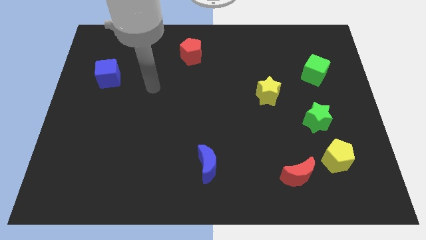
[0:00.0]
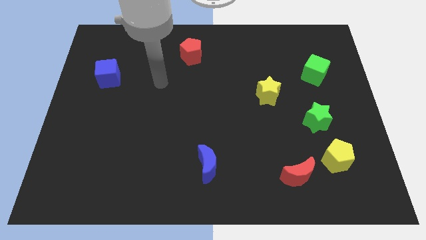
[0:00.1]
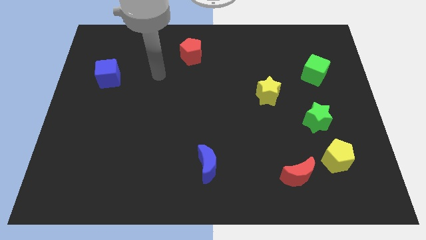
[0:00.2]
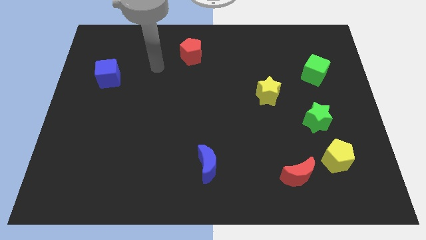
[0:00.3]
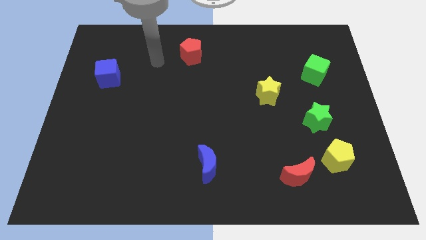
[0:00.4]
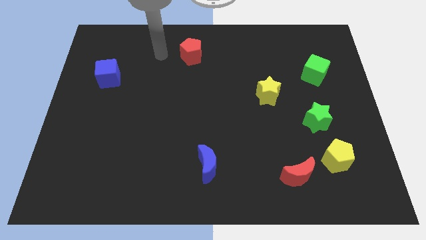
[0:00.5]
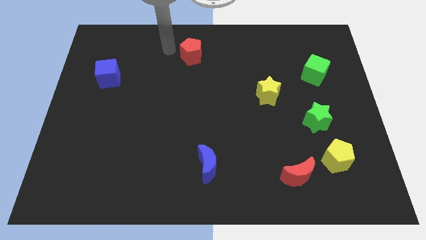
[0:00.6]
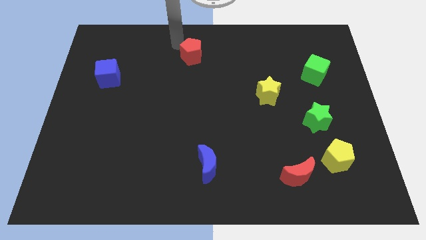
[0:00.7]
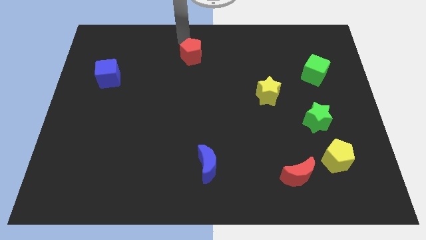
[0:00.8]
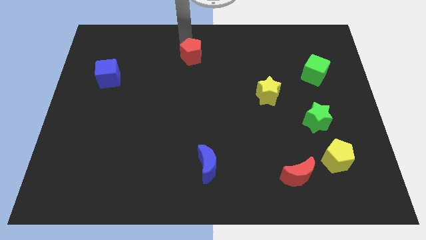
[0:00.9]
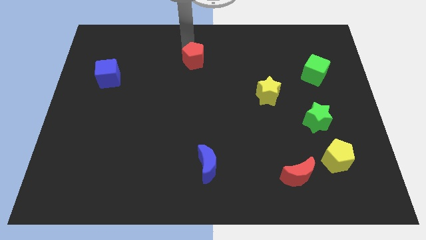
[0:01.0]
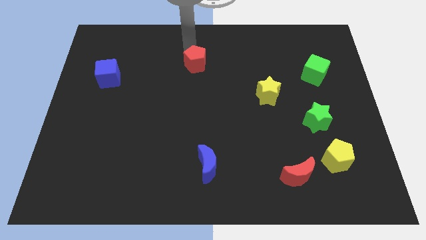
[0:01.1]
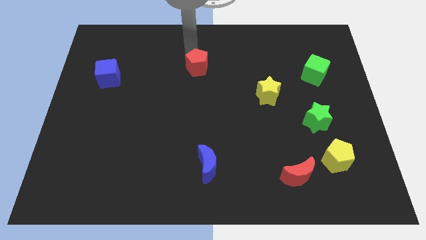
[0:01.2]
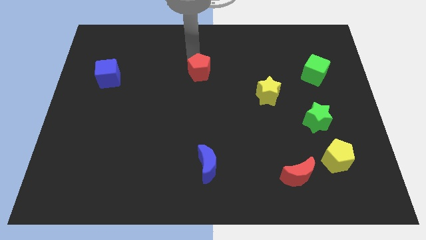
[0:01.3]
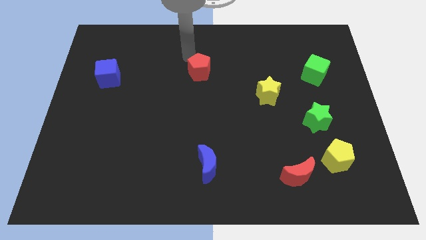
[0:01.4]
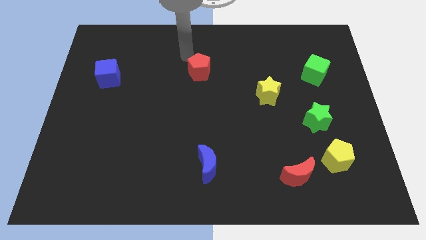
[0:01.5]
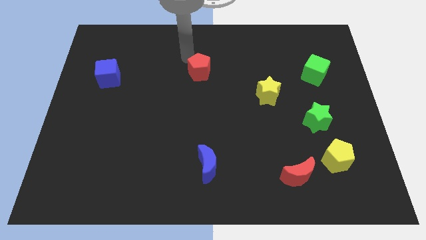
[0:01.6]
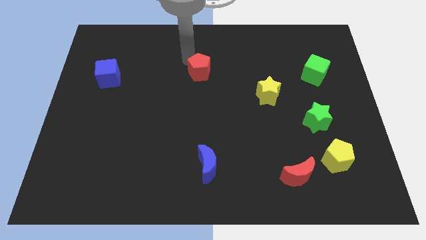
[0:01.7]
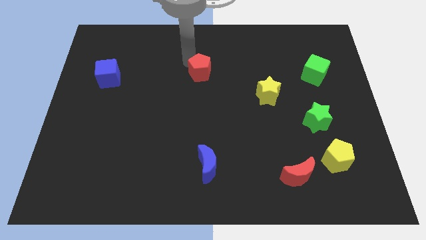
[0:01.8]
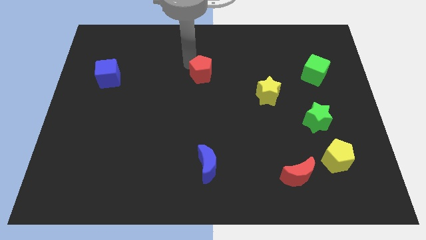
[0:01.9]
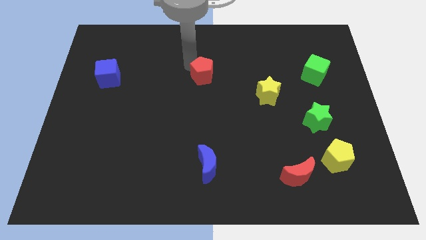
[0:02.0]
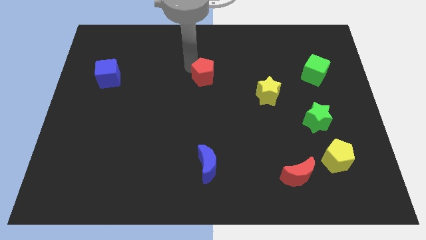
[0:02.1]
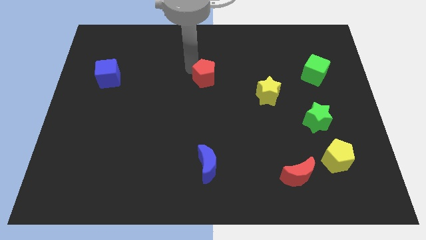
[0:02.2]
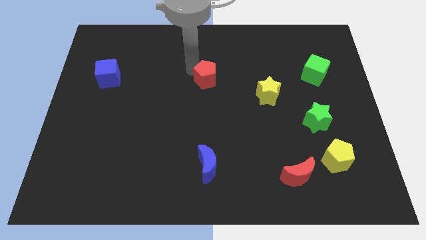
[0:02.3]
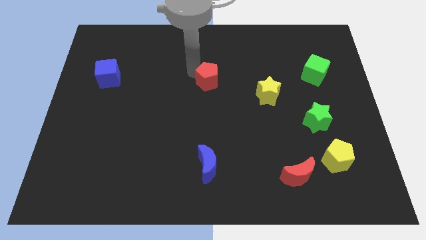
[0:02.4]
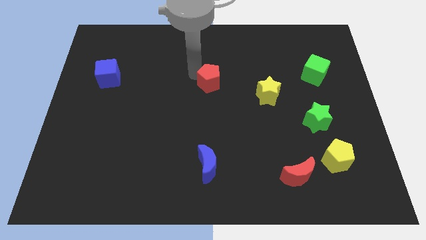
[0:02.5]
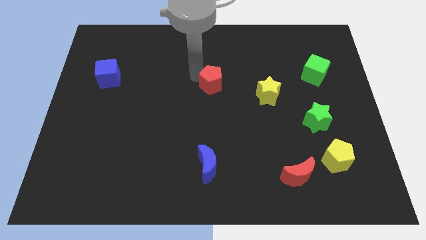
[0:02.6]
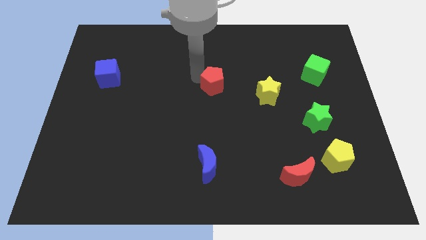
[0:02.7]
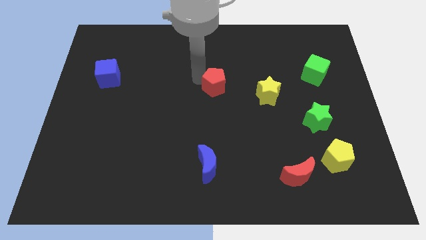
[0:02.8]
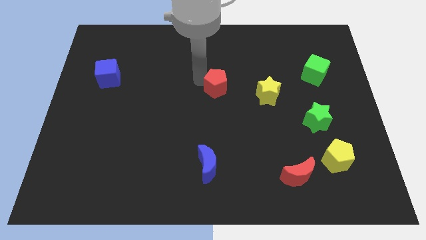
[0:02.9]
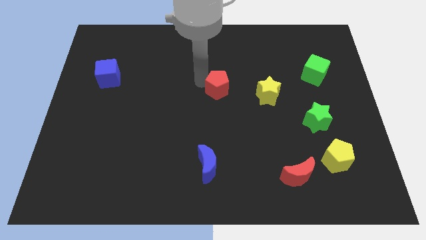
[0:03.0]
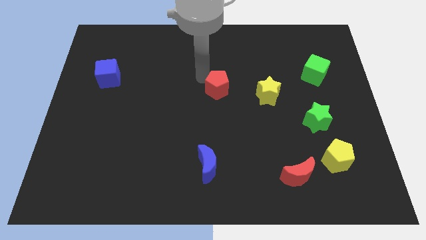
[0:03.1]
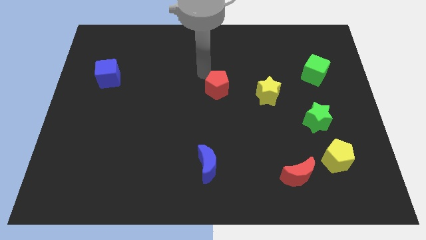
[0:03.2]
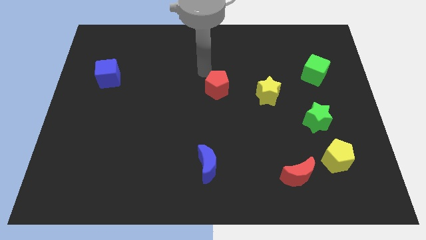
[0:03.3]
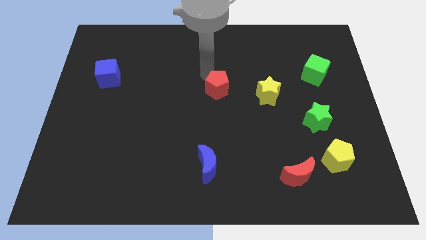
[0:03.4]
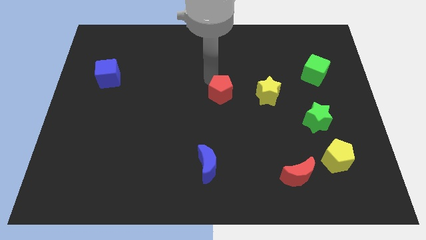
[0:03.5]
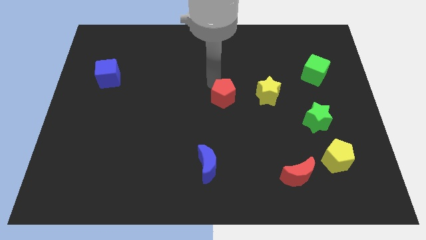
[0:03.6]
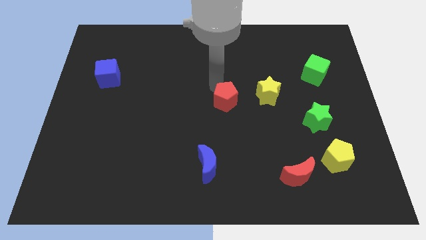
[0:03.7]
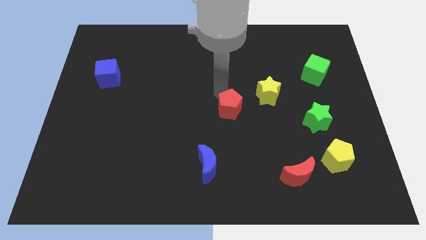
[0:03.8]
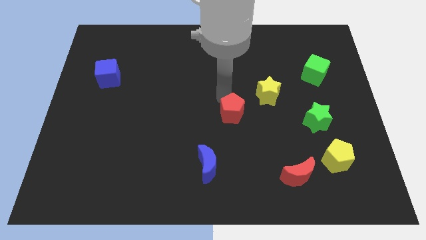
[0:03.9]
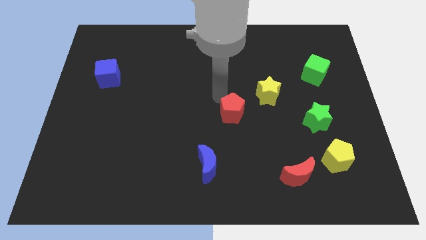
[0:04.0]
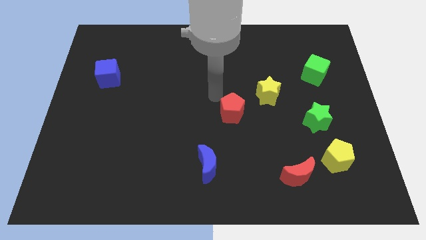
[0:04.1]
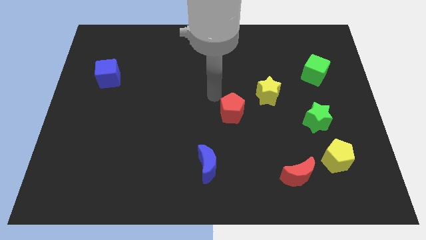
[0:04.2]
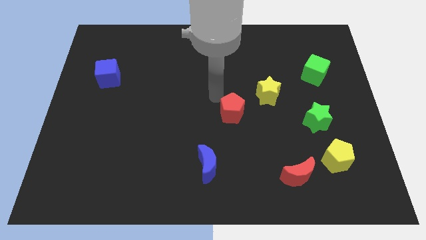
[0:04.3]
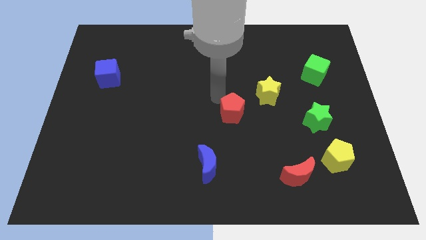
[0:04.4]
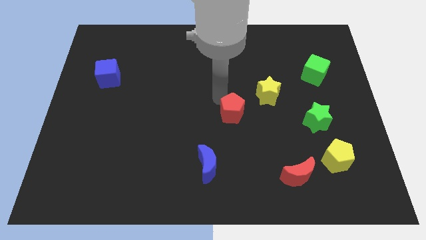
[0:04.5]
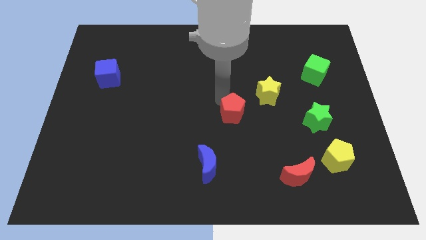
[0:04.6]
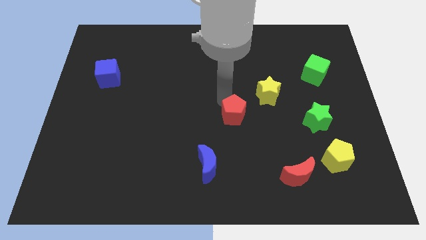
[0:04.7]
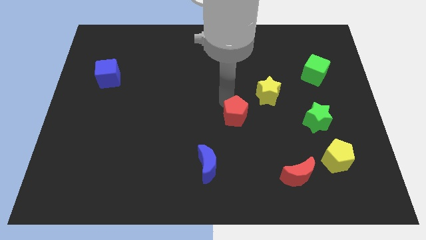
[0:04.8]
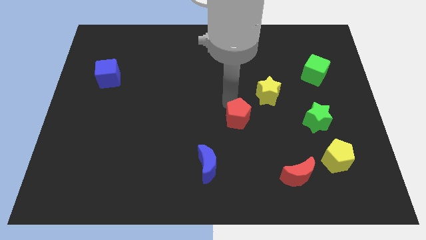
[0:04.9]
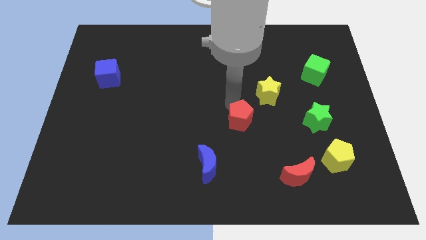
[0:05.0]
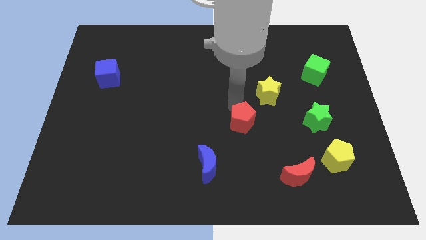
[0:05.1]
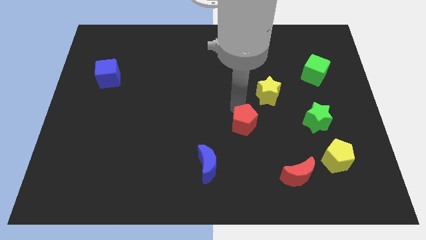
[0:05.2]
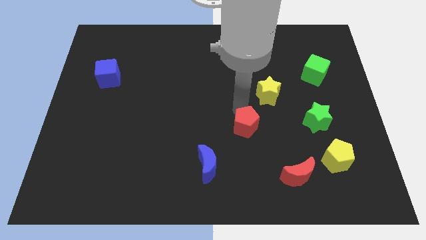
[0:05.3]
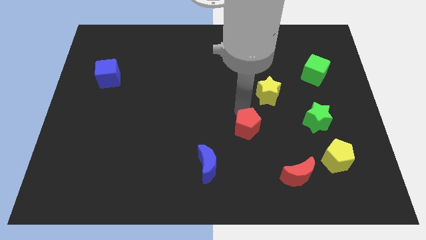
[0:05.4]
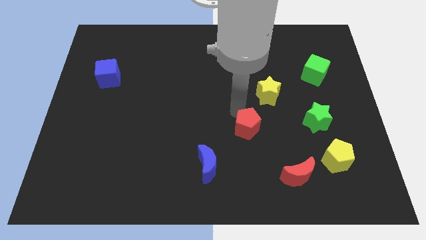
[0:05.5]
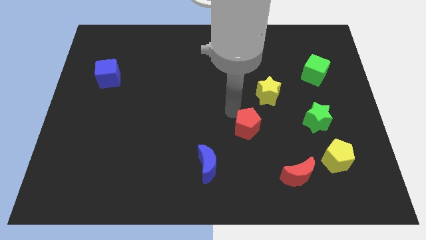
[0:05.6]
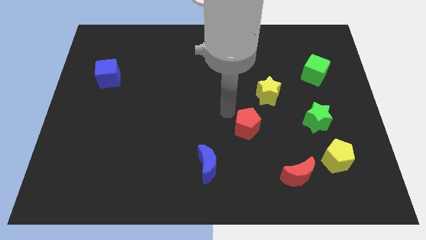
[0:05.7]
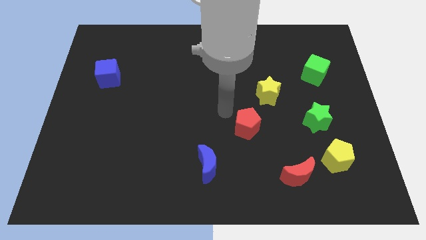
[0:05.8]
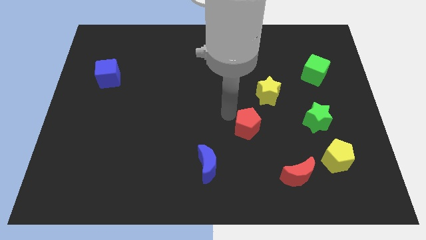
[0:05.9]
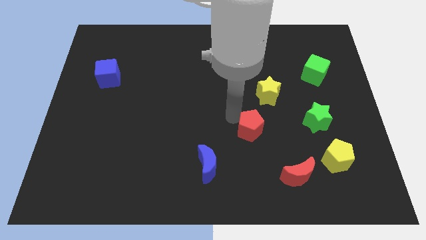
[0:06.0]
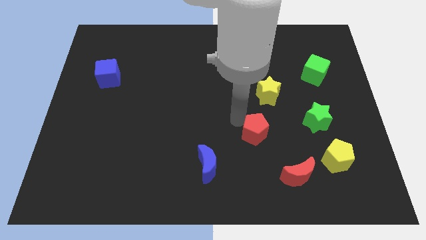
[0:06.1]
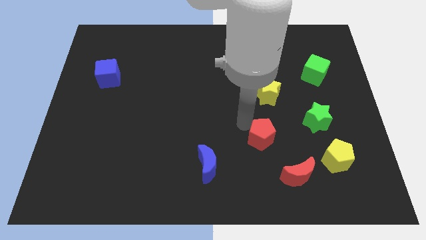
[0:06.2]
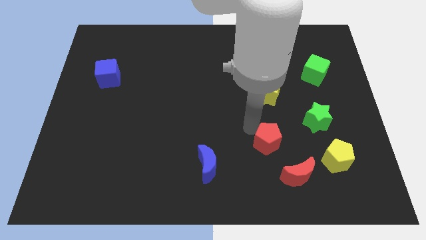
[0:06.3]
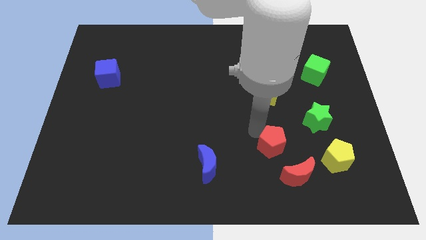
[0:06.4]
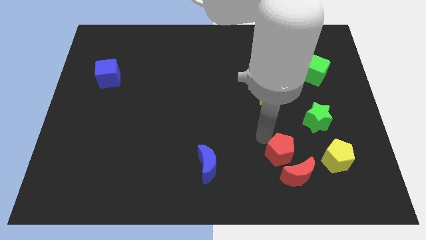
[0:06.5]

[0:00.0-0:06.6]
push the red pentagon next to the red moon
